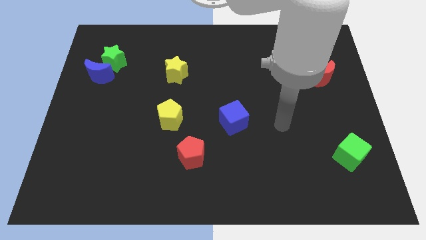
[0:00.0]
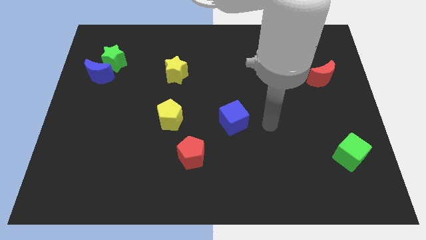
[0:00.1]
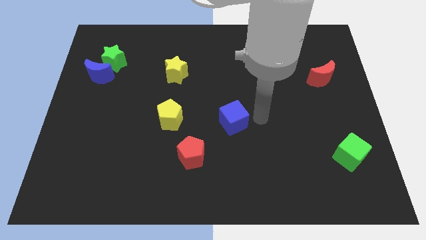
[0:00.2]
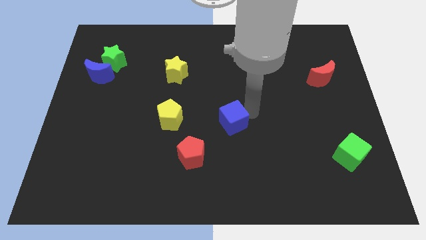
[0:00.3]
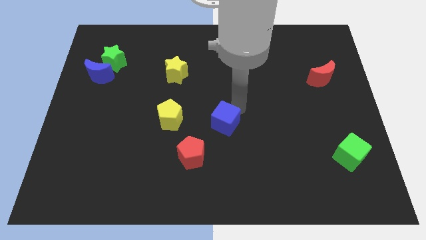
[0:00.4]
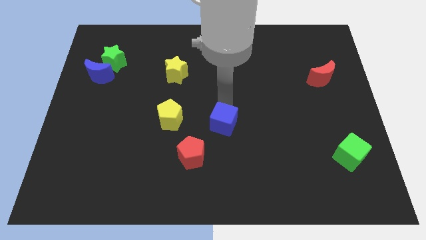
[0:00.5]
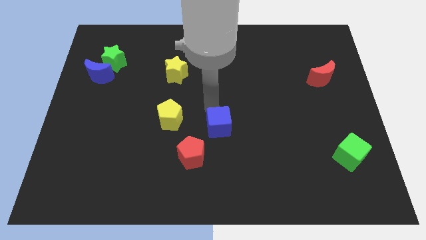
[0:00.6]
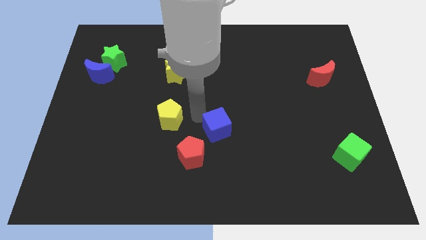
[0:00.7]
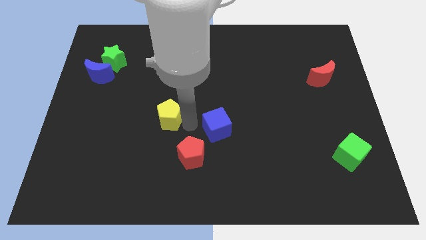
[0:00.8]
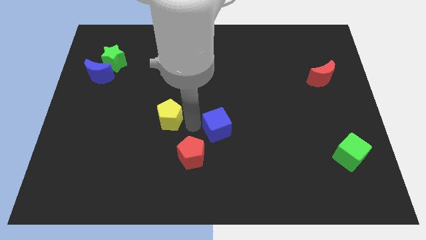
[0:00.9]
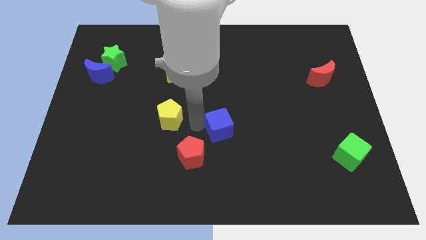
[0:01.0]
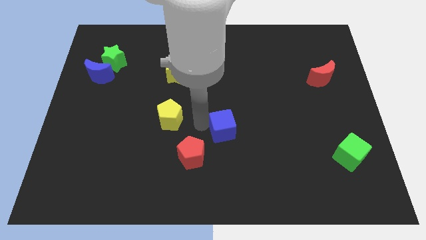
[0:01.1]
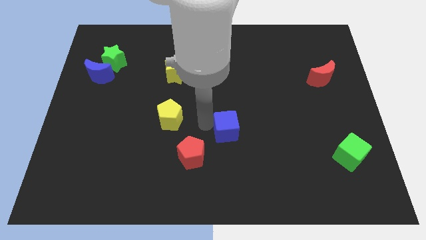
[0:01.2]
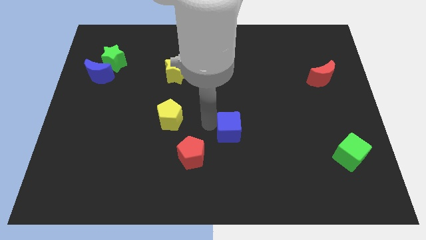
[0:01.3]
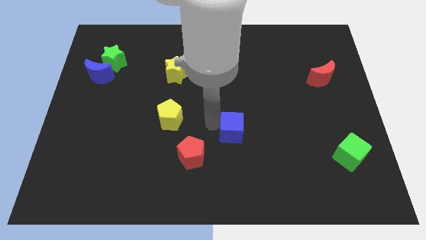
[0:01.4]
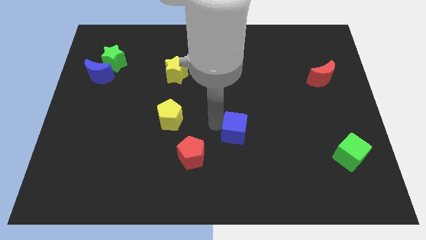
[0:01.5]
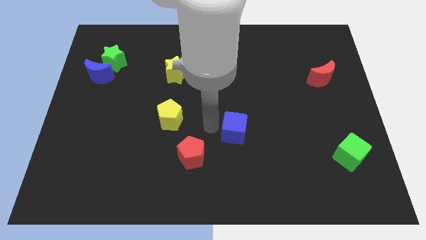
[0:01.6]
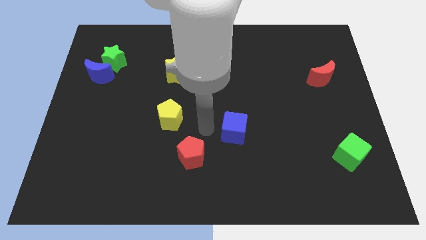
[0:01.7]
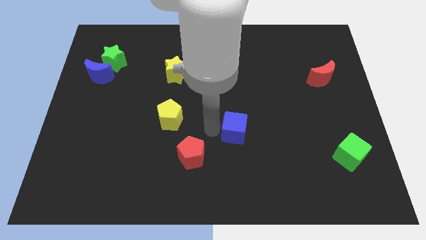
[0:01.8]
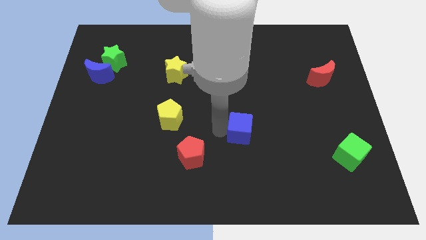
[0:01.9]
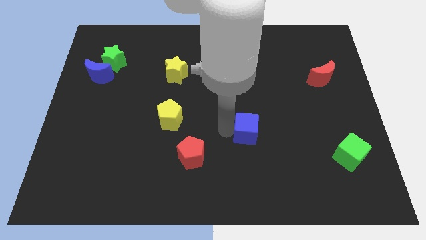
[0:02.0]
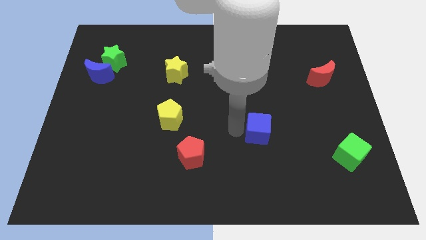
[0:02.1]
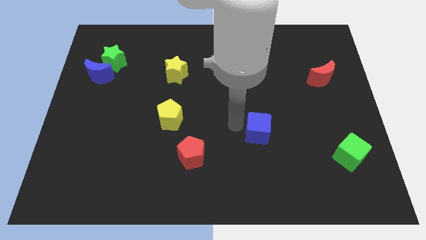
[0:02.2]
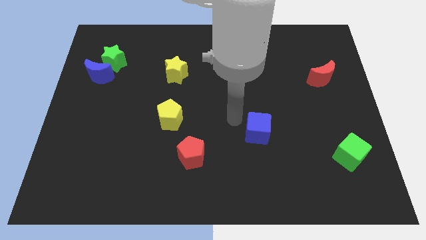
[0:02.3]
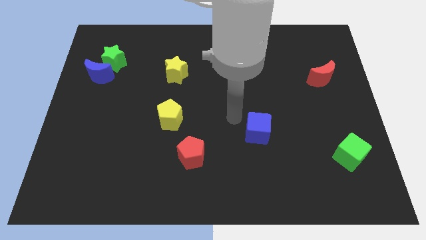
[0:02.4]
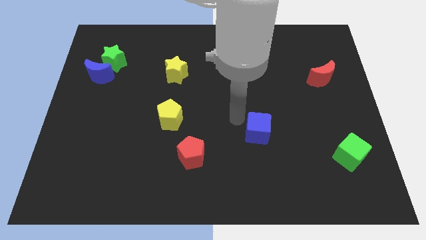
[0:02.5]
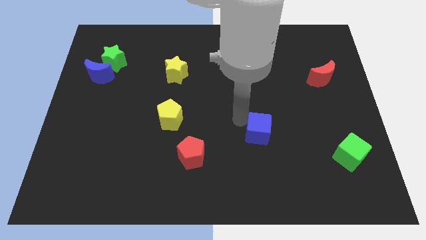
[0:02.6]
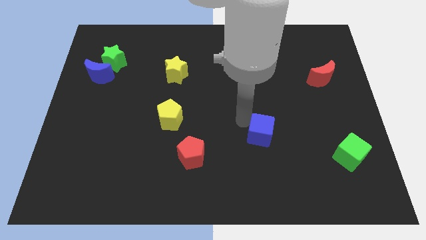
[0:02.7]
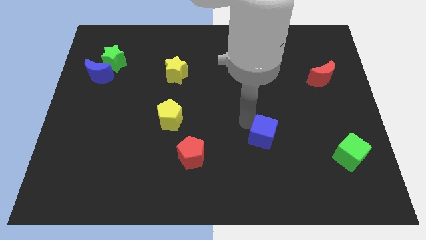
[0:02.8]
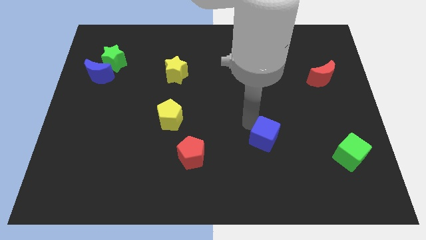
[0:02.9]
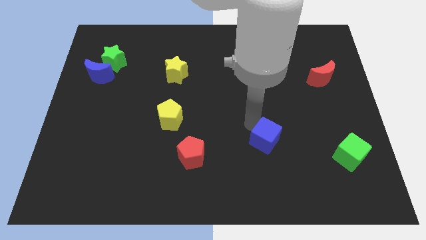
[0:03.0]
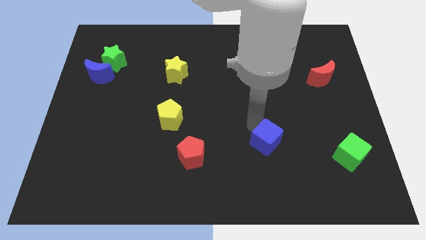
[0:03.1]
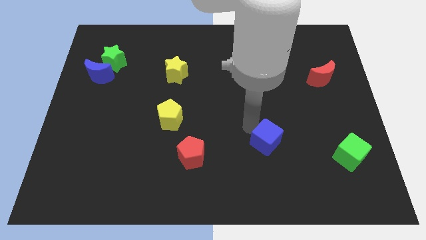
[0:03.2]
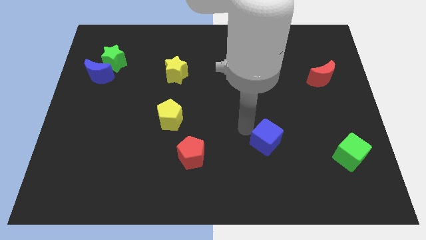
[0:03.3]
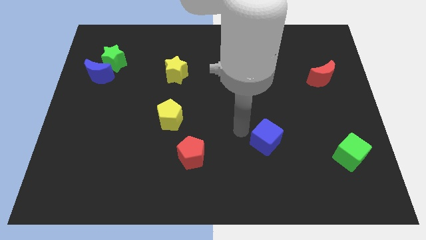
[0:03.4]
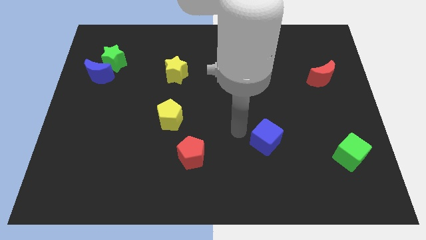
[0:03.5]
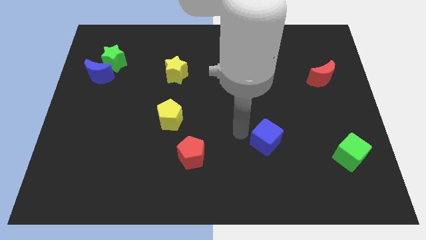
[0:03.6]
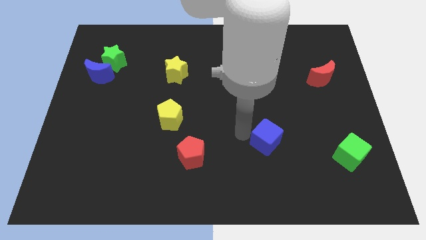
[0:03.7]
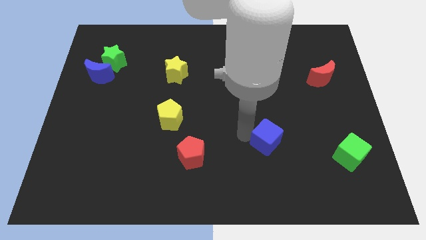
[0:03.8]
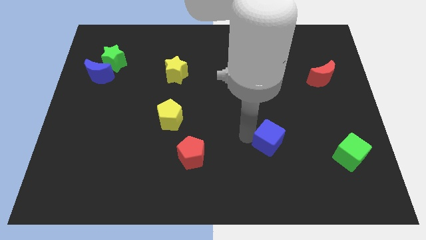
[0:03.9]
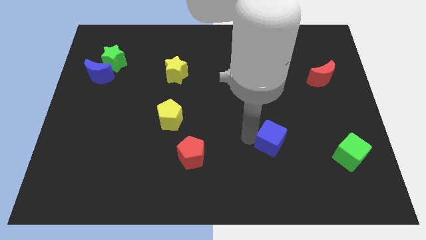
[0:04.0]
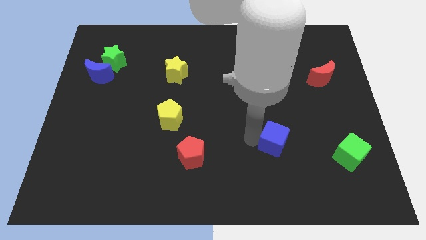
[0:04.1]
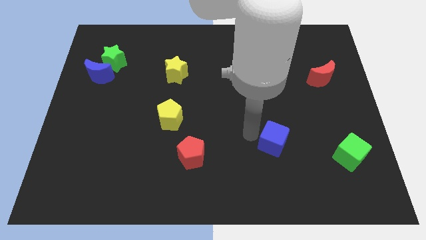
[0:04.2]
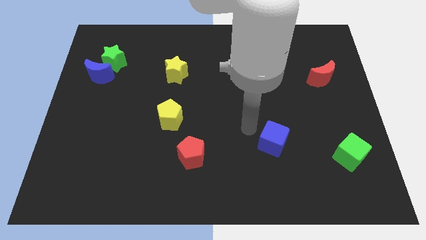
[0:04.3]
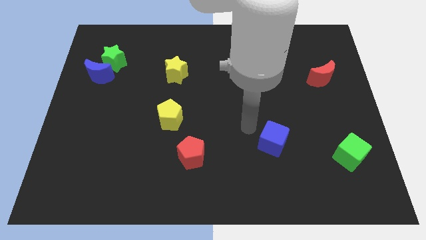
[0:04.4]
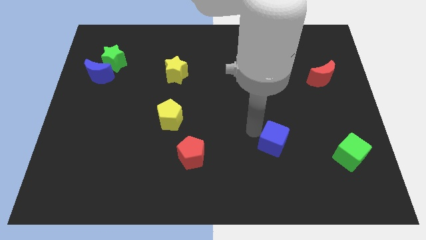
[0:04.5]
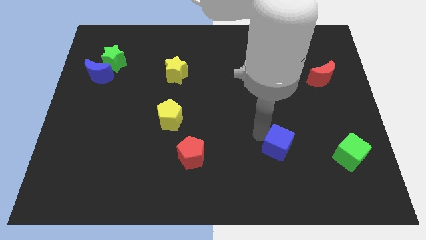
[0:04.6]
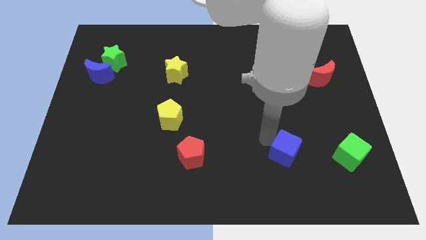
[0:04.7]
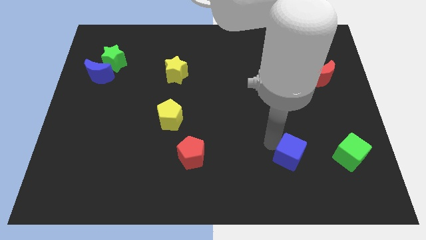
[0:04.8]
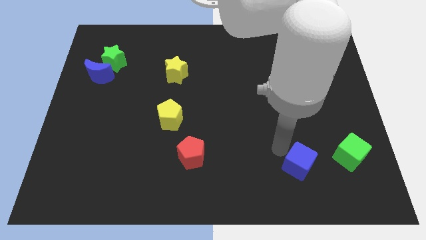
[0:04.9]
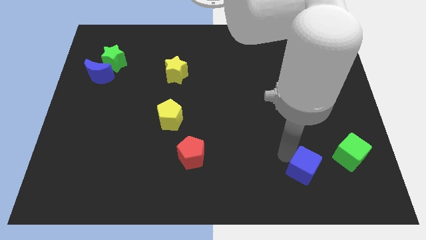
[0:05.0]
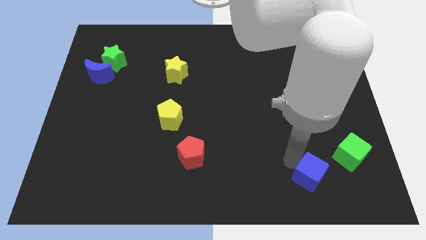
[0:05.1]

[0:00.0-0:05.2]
slide the blue cube diagonally down and to the left of the green cube
